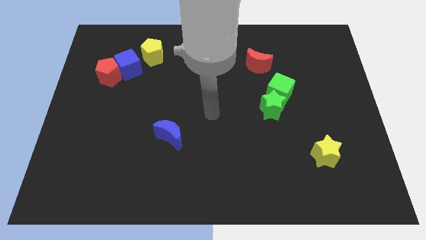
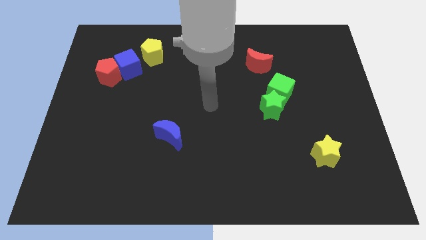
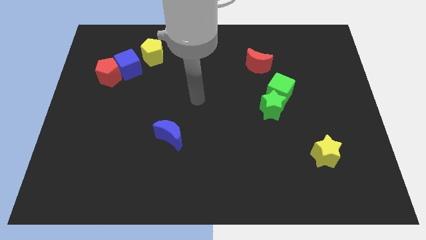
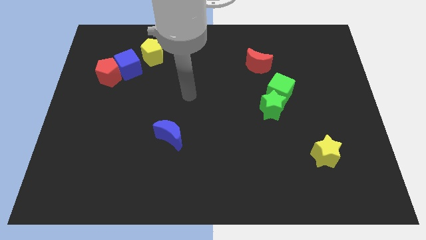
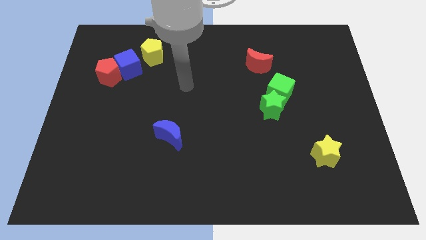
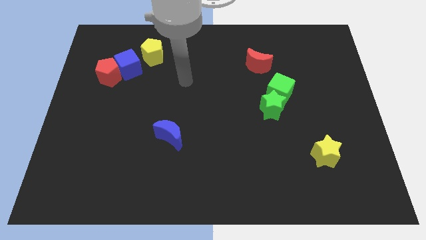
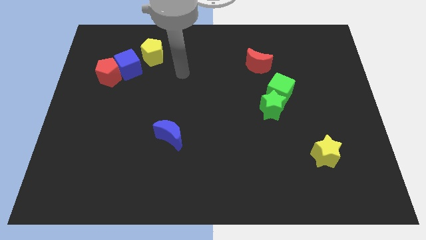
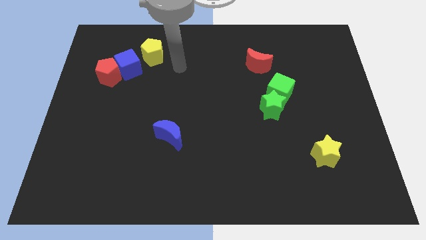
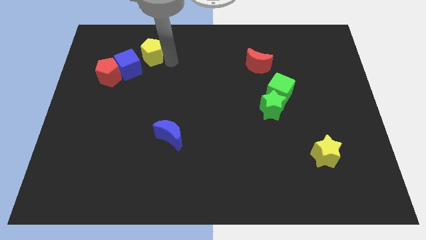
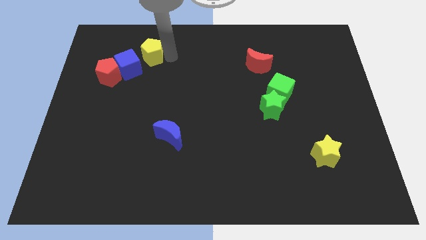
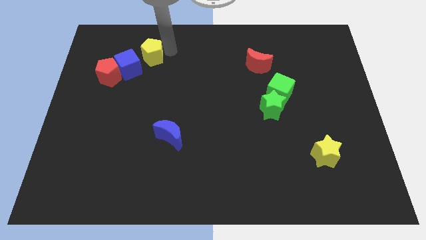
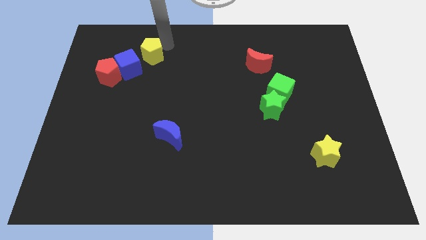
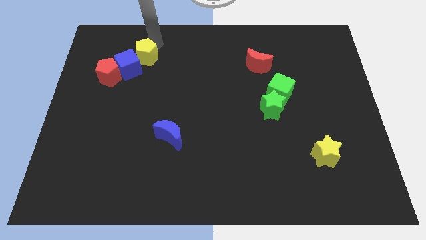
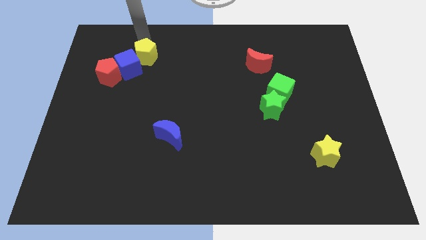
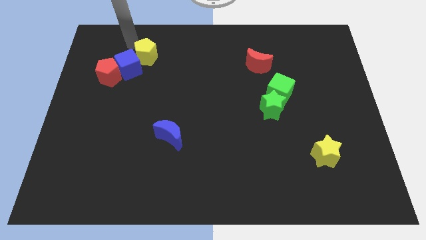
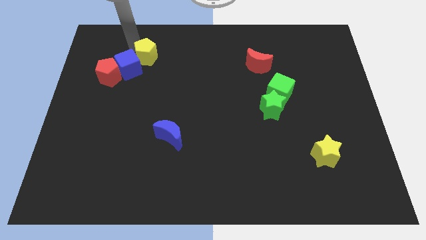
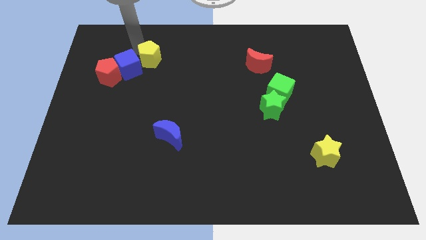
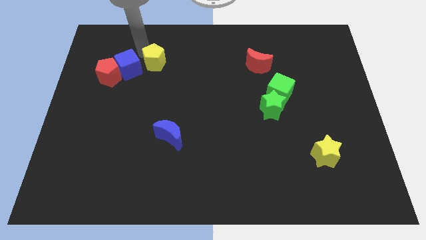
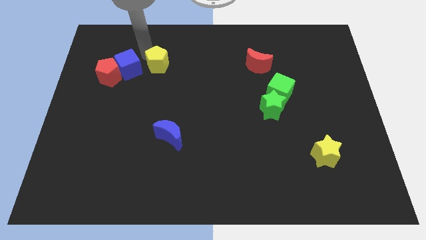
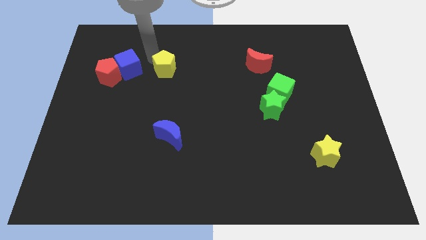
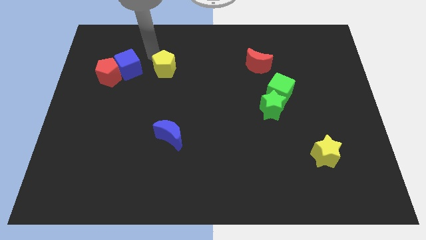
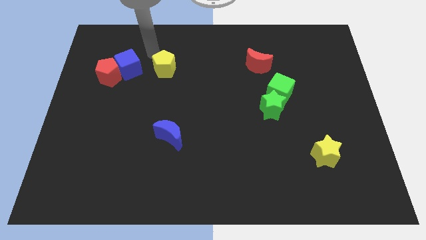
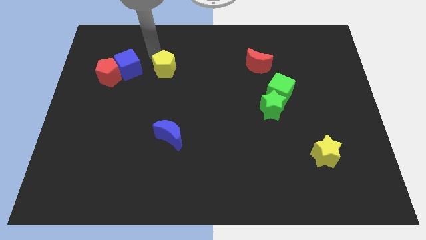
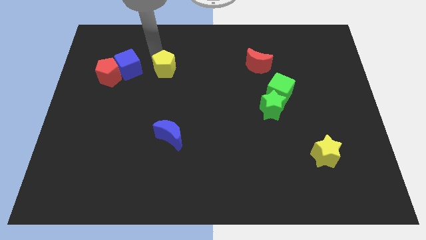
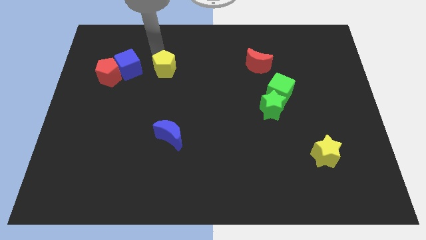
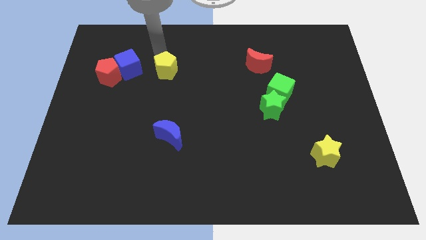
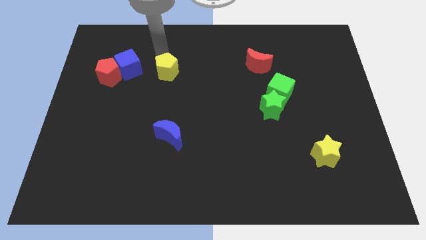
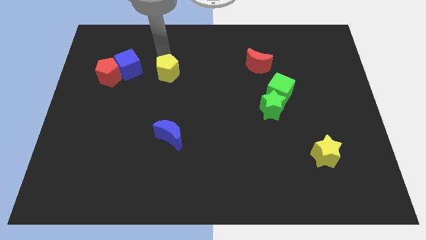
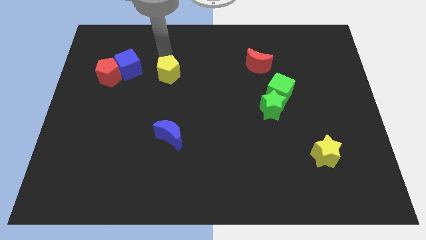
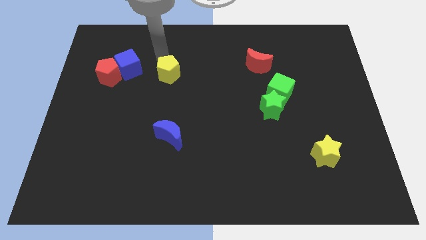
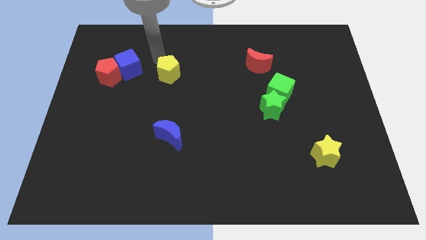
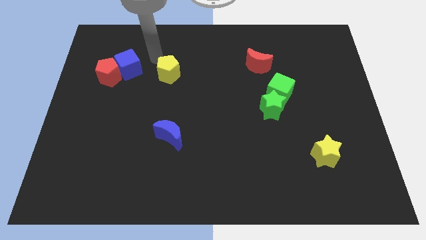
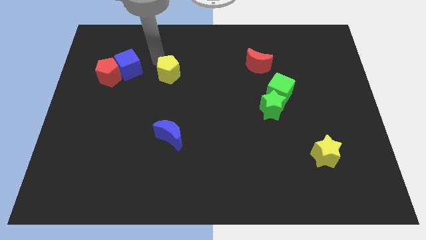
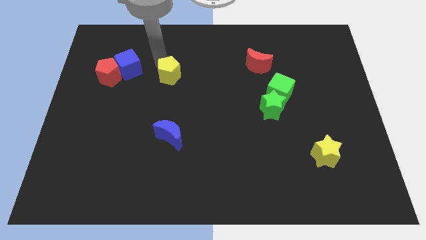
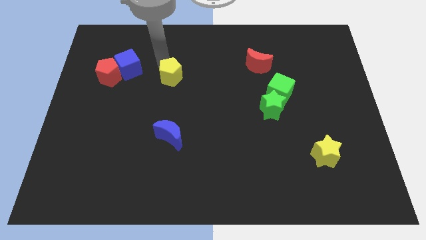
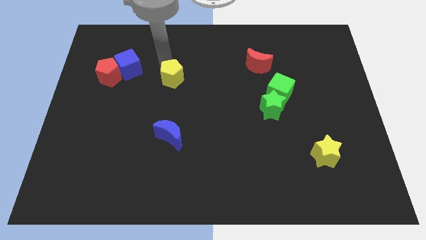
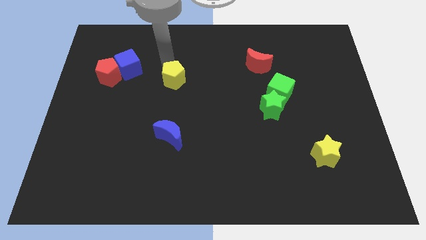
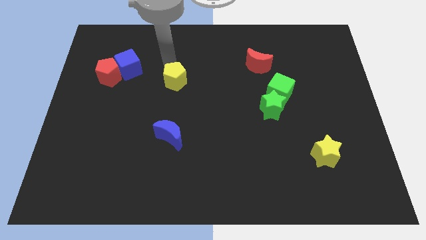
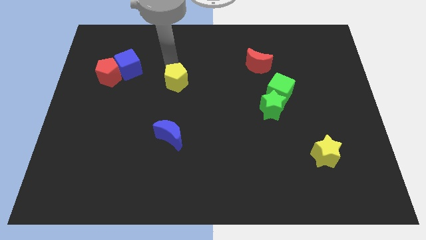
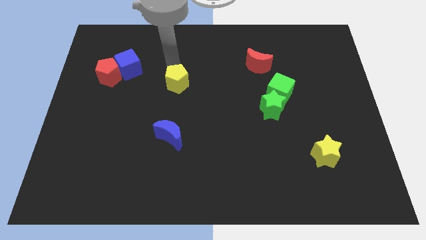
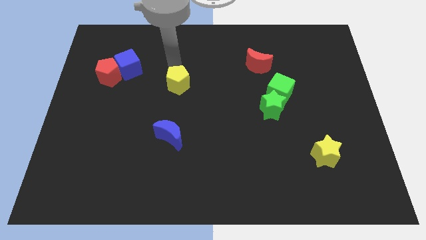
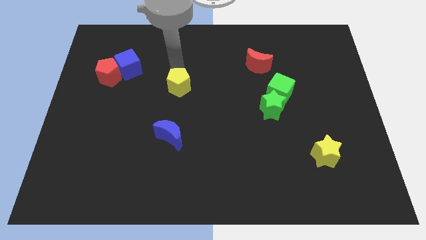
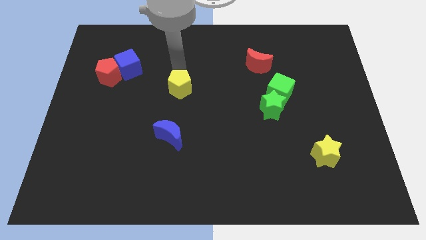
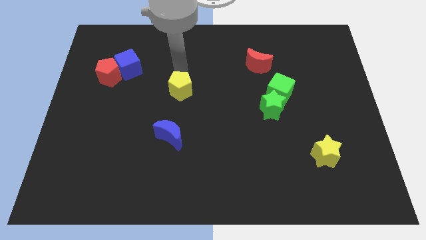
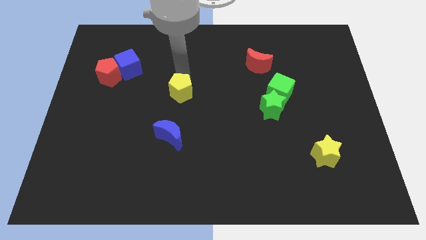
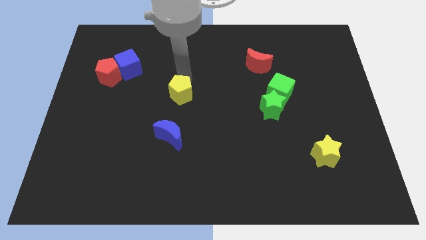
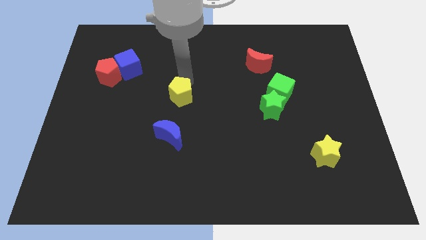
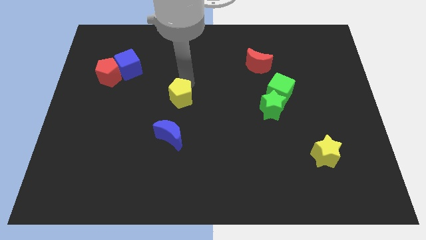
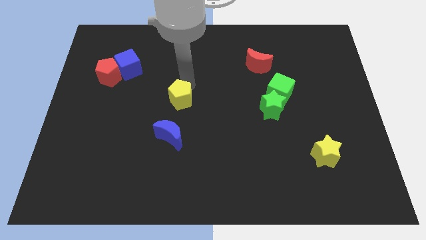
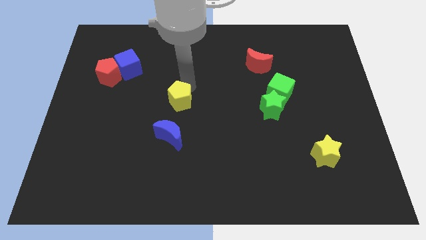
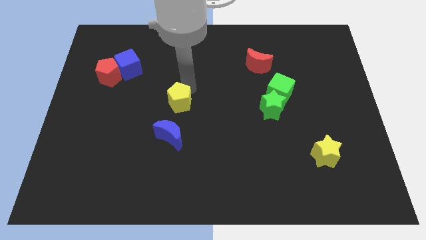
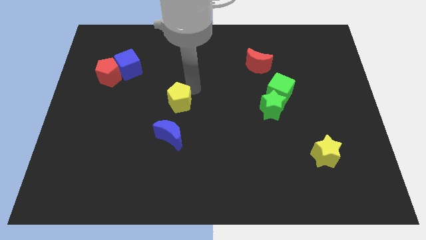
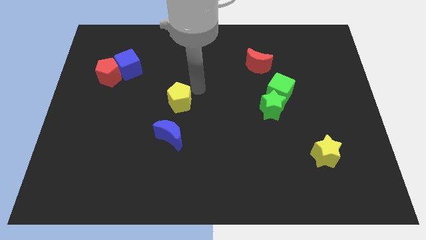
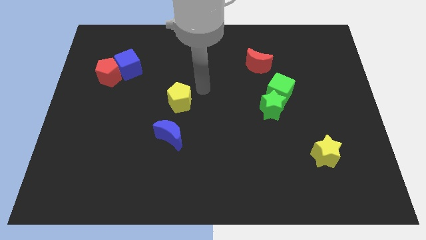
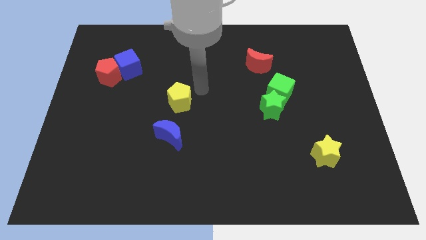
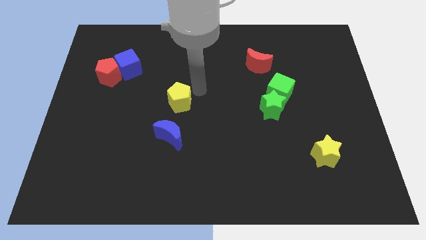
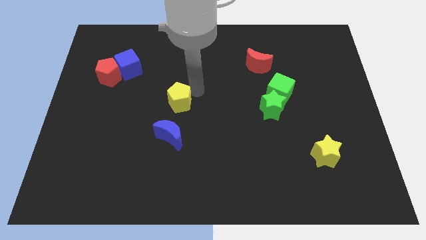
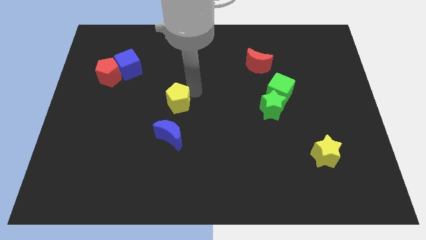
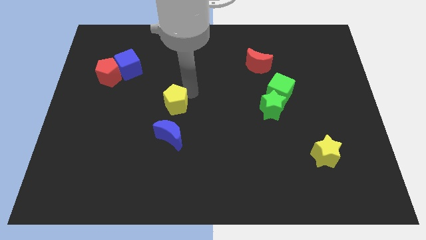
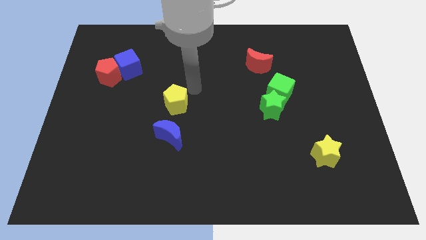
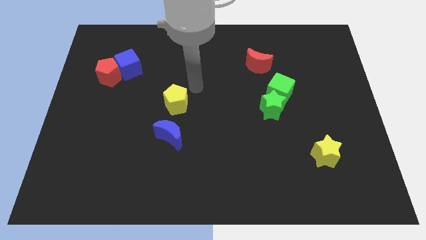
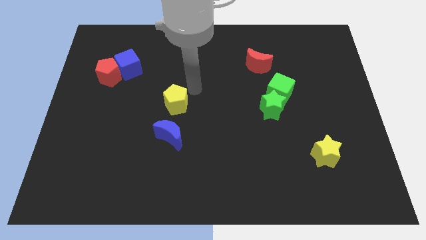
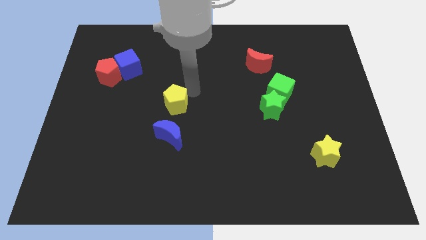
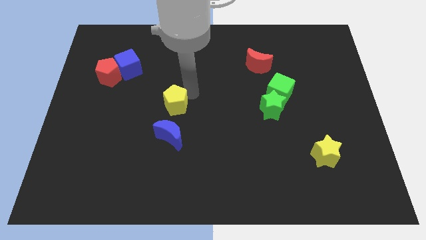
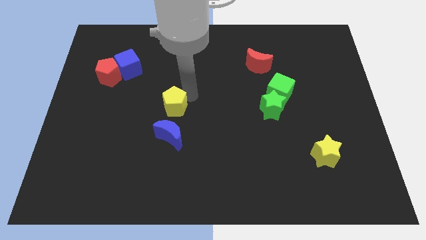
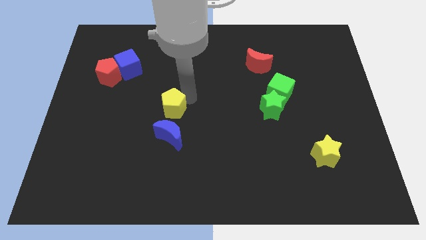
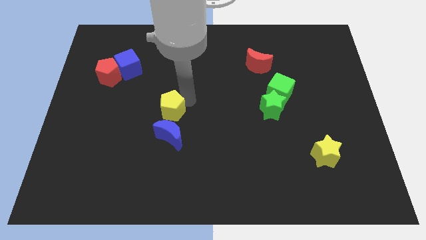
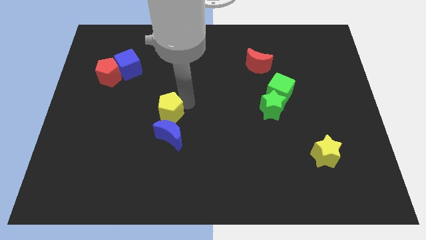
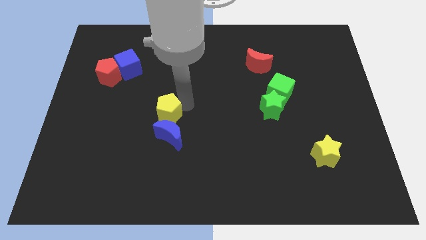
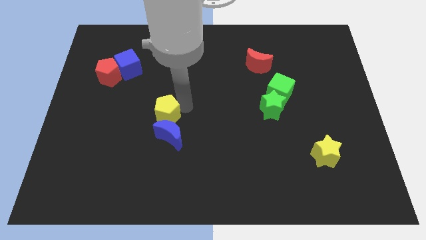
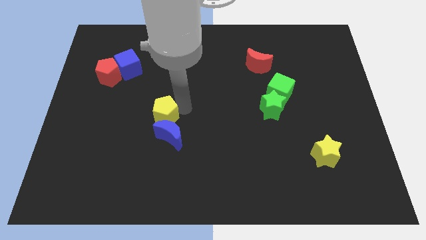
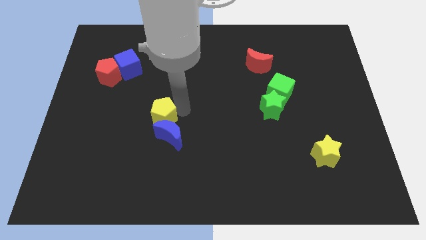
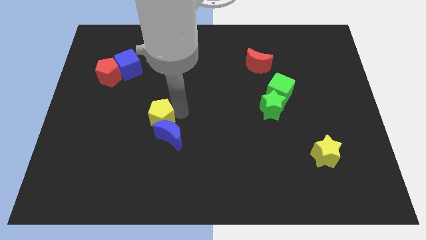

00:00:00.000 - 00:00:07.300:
push the yellow pentagon down

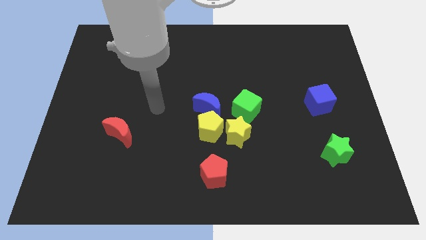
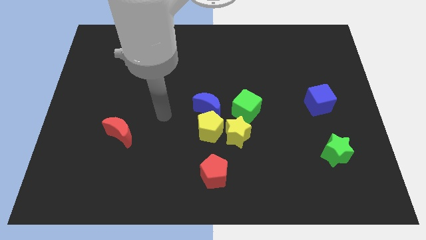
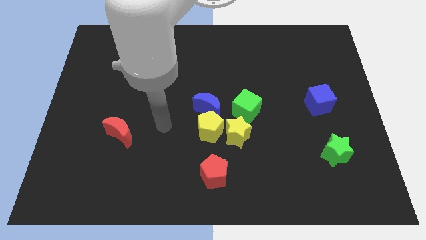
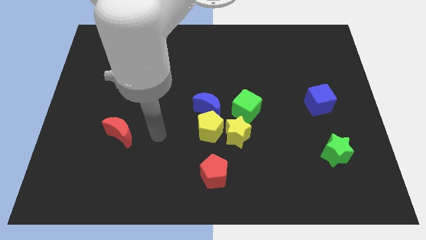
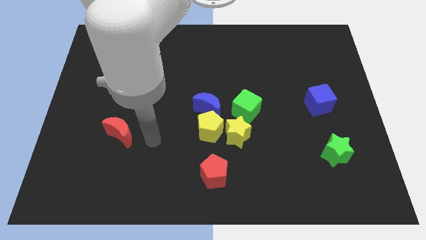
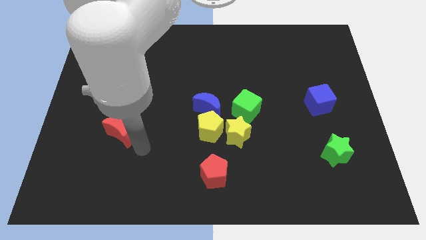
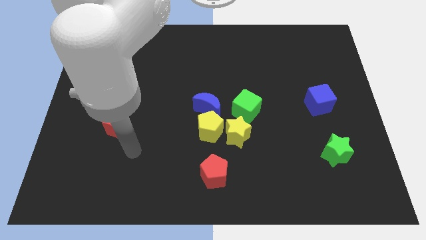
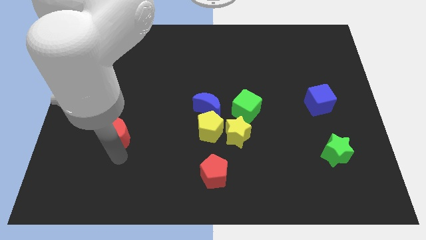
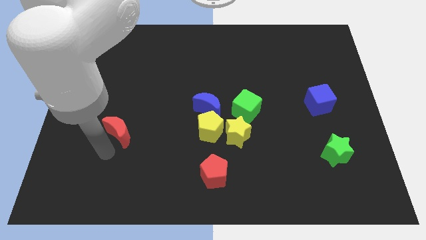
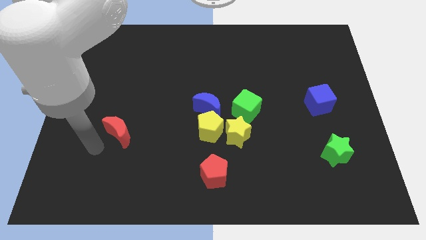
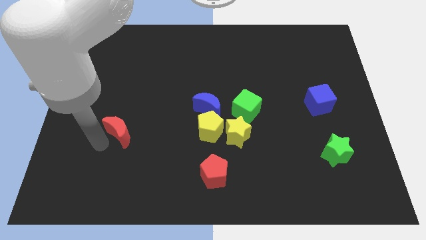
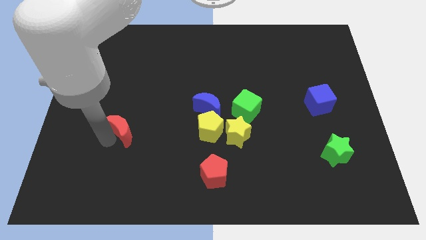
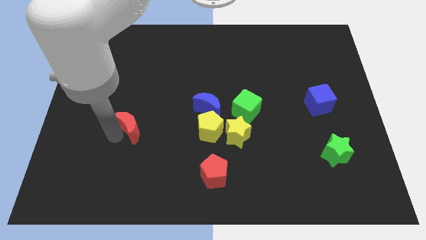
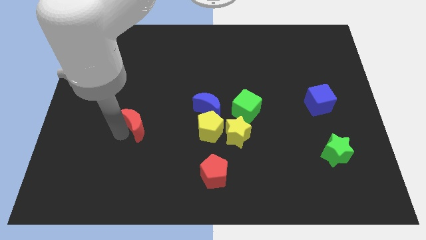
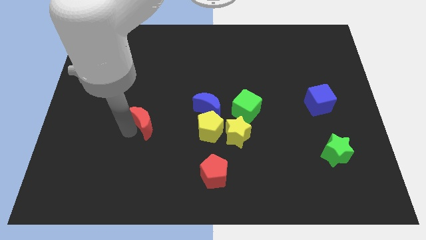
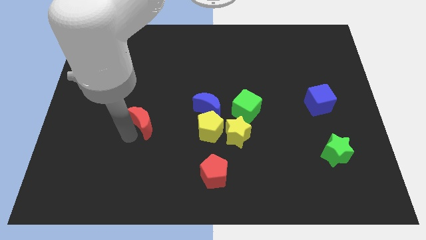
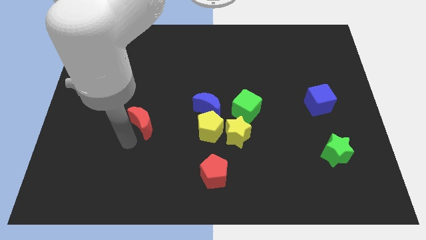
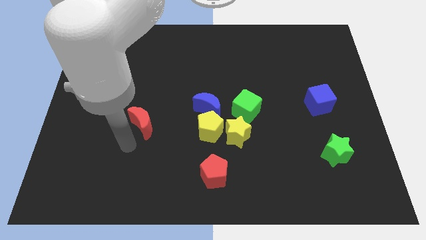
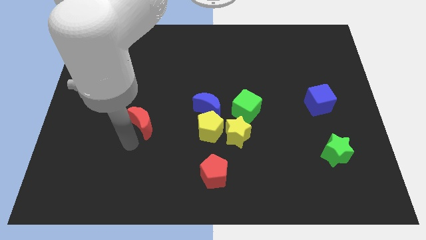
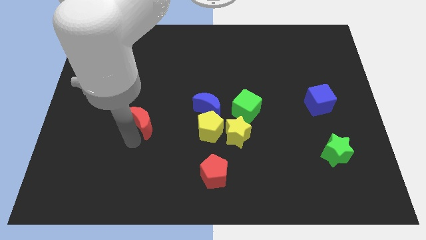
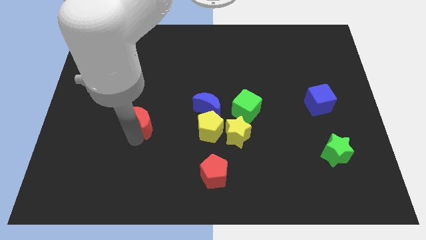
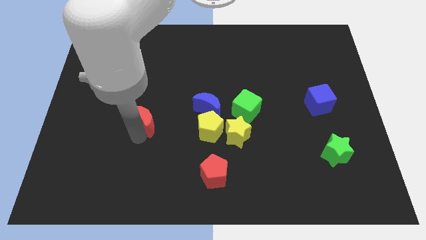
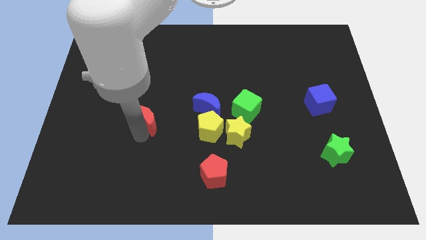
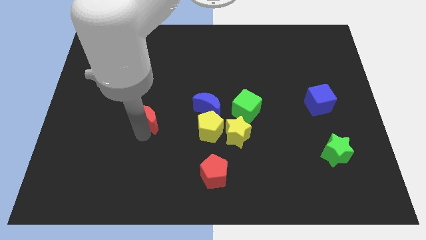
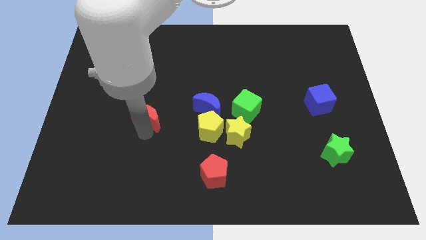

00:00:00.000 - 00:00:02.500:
push the red moon diagonally upwards and to the right somewhat
